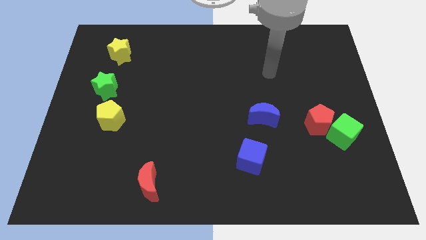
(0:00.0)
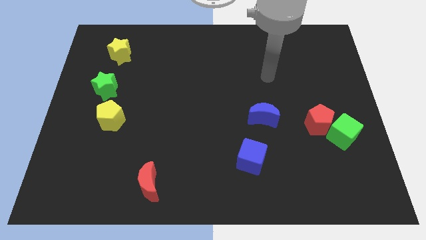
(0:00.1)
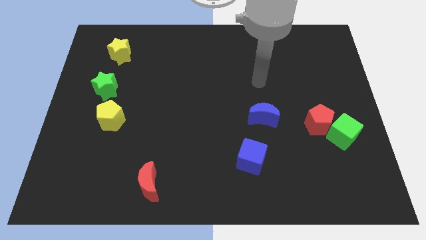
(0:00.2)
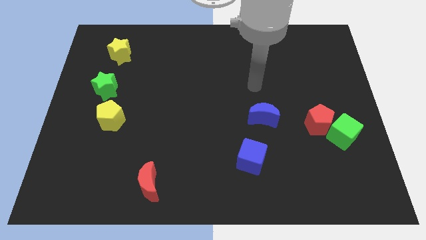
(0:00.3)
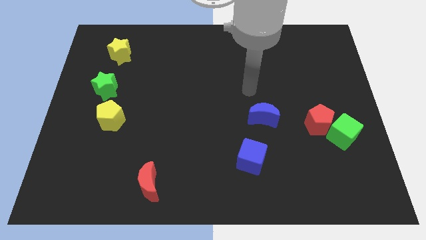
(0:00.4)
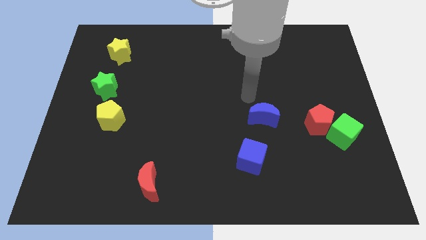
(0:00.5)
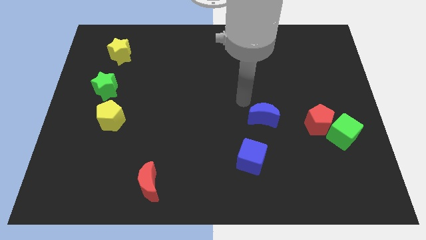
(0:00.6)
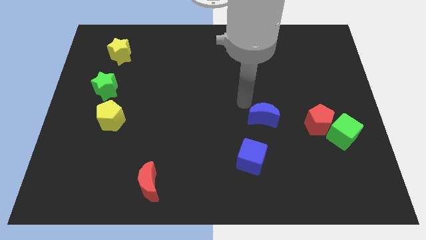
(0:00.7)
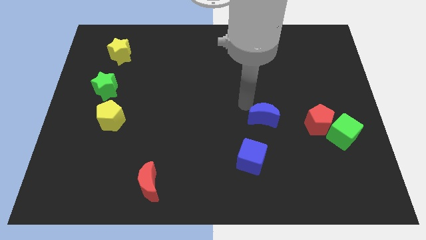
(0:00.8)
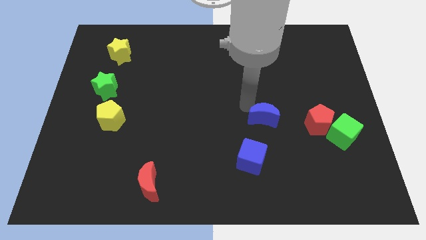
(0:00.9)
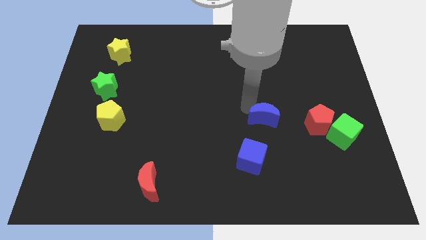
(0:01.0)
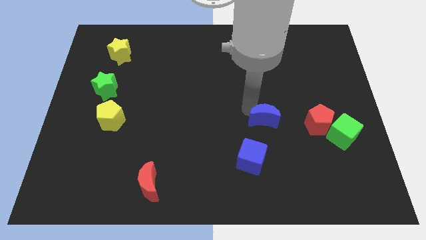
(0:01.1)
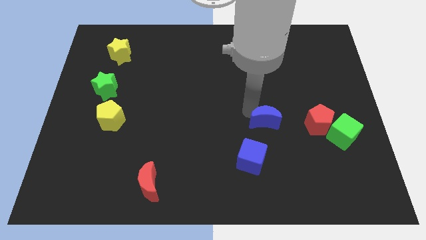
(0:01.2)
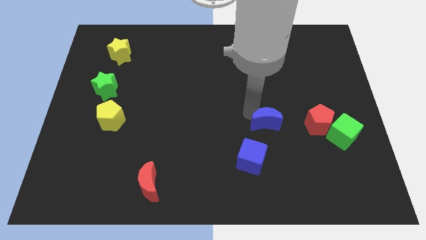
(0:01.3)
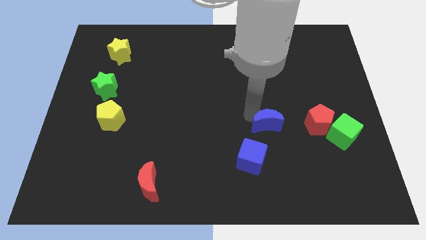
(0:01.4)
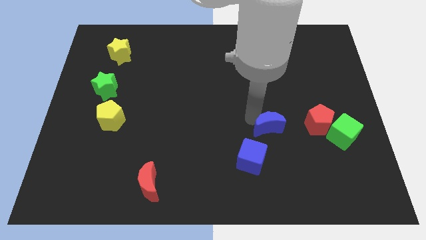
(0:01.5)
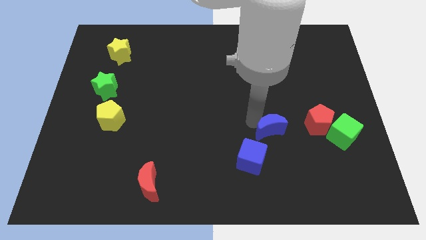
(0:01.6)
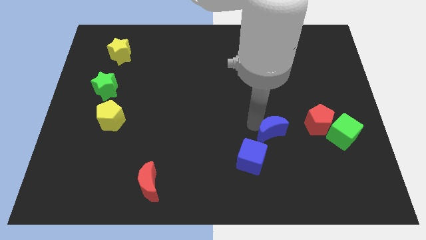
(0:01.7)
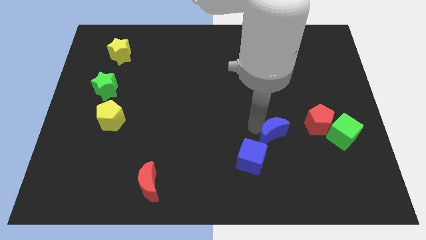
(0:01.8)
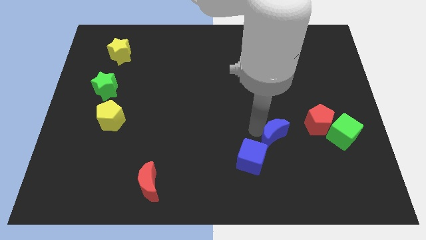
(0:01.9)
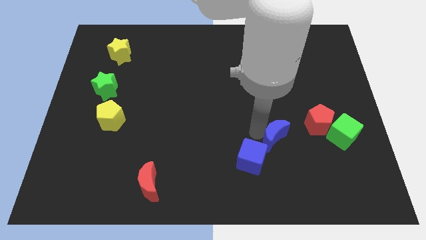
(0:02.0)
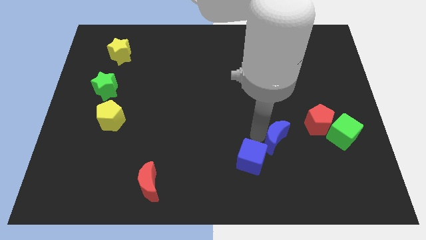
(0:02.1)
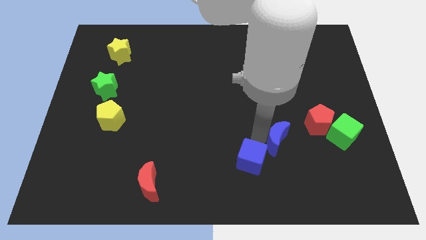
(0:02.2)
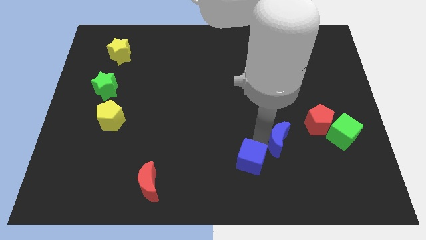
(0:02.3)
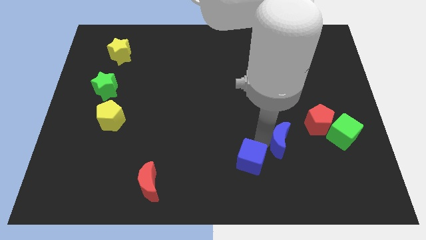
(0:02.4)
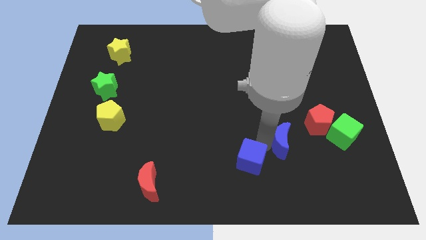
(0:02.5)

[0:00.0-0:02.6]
move the blue moon a little downwards and then right

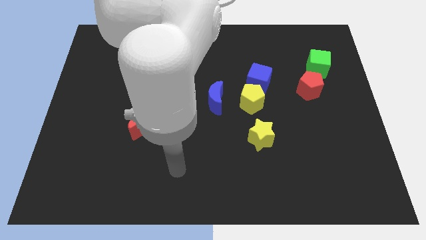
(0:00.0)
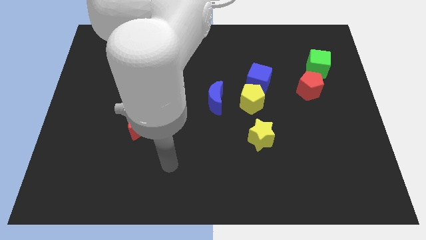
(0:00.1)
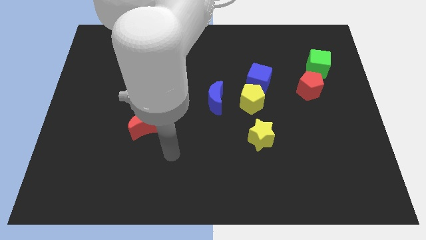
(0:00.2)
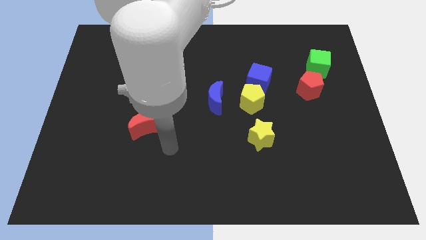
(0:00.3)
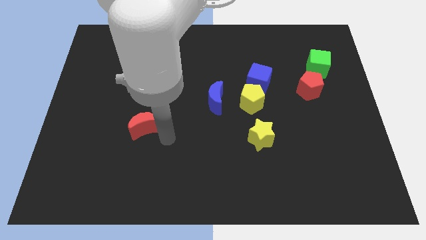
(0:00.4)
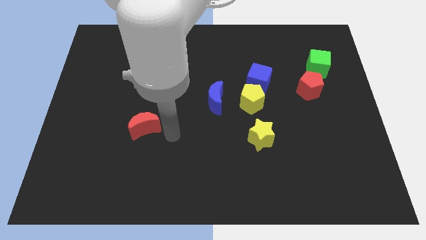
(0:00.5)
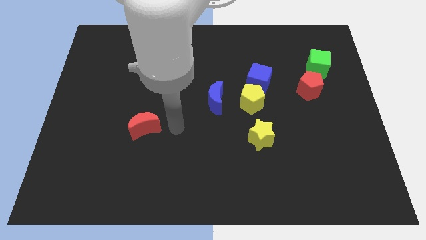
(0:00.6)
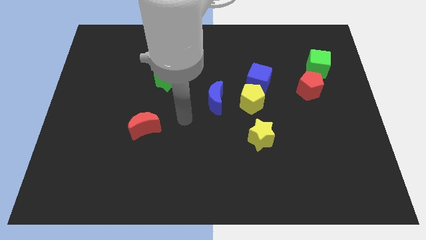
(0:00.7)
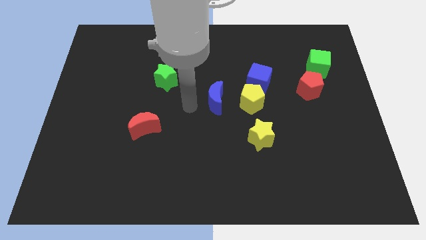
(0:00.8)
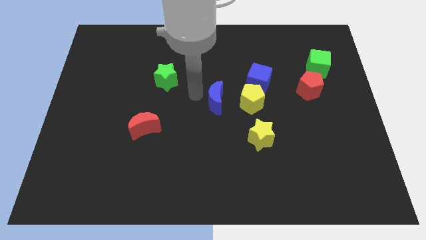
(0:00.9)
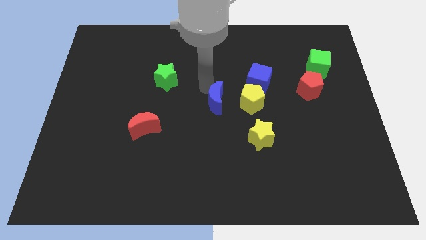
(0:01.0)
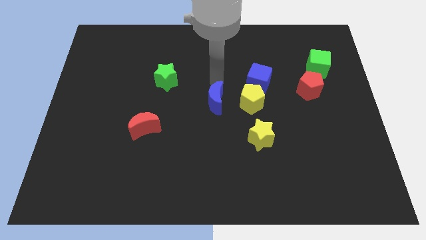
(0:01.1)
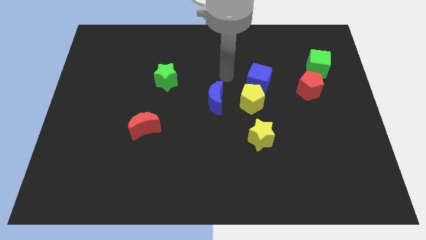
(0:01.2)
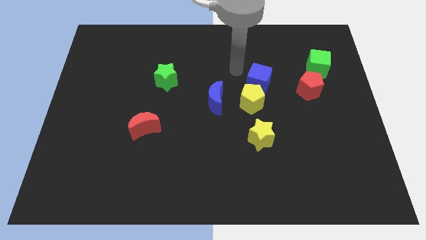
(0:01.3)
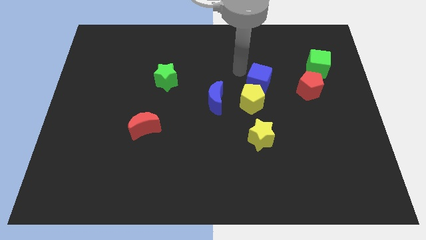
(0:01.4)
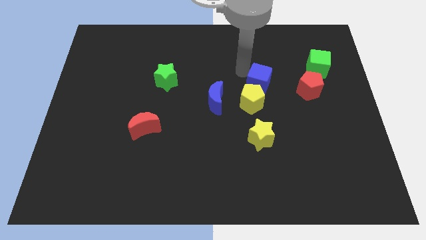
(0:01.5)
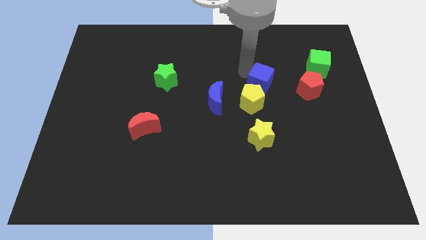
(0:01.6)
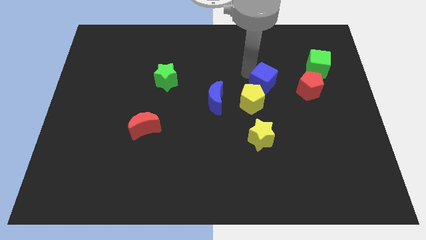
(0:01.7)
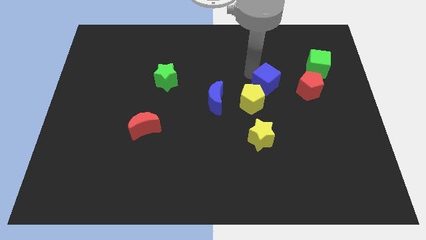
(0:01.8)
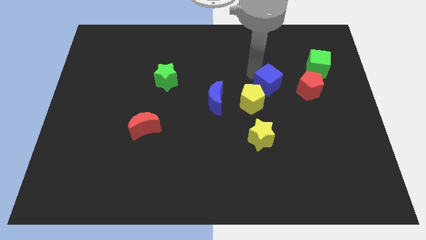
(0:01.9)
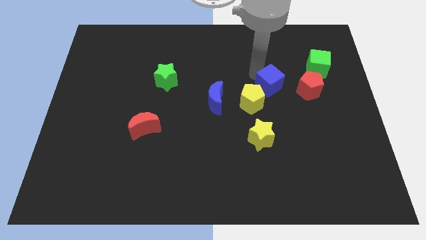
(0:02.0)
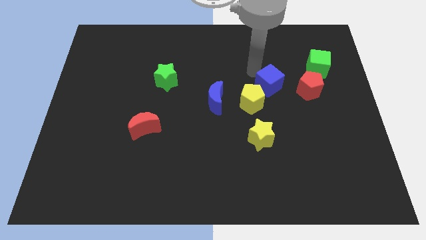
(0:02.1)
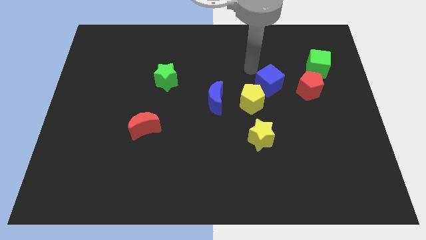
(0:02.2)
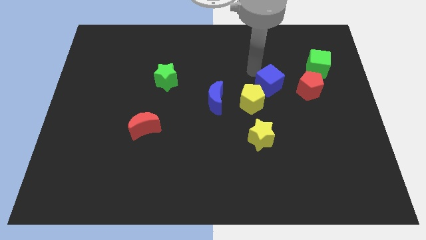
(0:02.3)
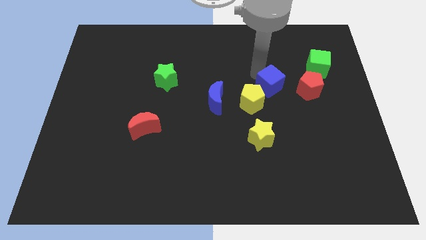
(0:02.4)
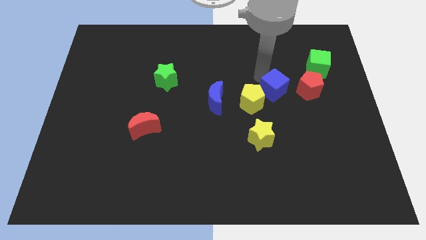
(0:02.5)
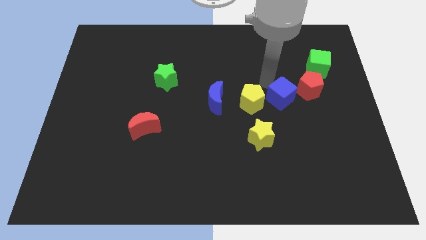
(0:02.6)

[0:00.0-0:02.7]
slide the blue cube down and to the right slightly

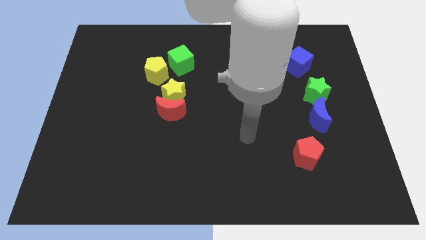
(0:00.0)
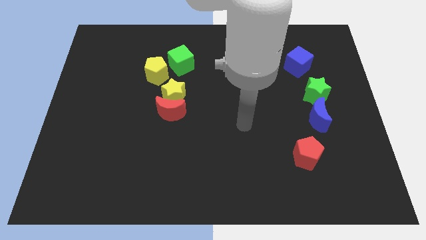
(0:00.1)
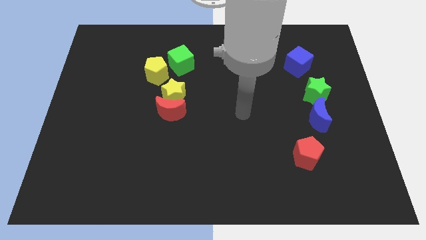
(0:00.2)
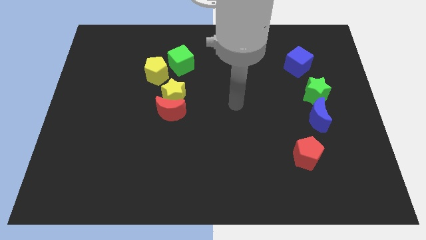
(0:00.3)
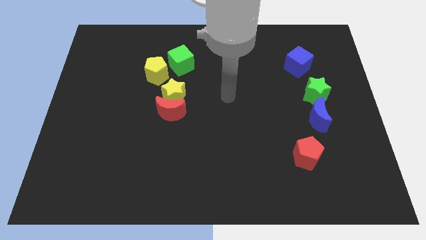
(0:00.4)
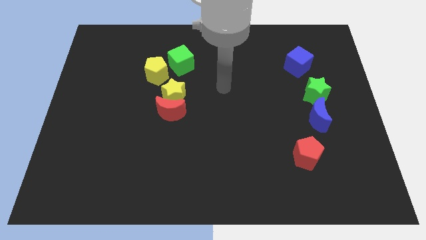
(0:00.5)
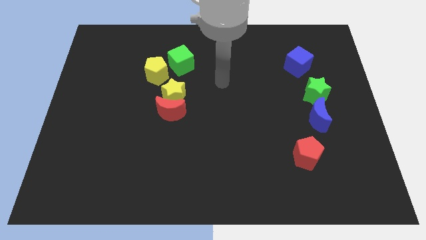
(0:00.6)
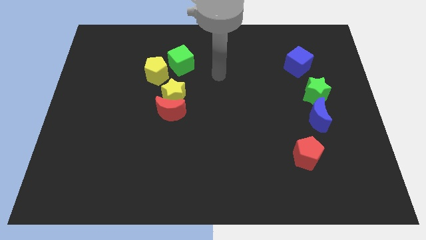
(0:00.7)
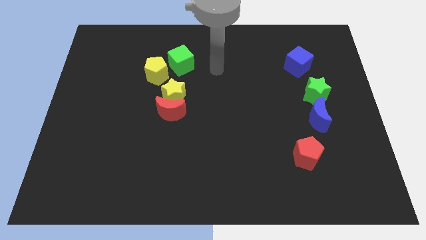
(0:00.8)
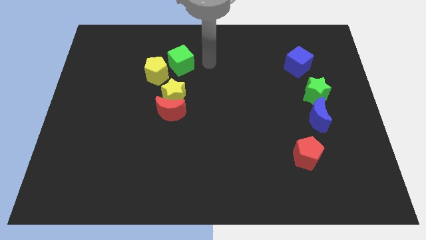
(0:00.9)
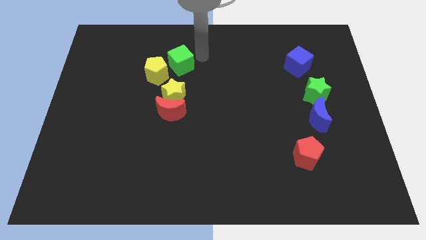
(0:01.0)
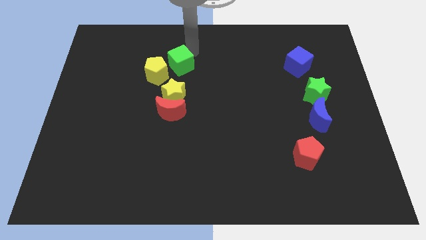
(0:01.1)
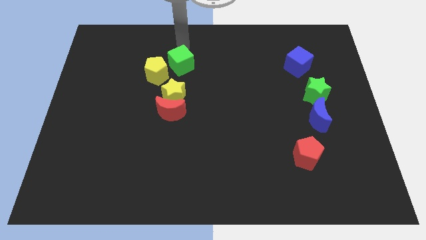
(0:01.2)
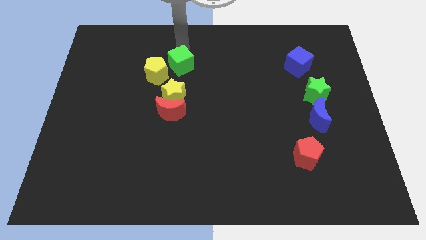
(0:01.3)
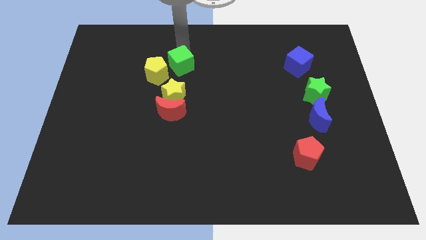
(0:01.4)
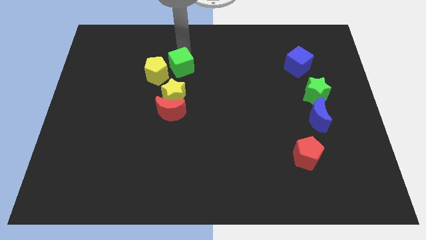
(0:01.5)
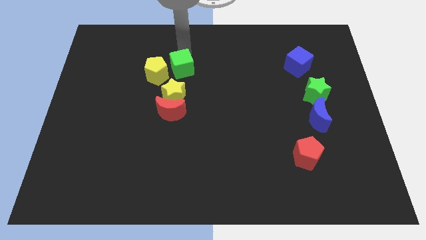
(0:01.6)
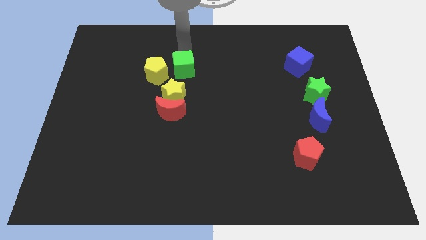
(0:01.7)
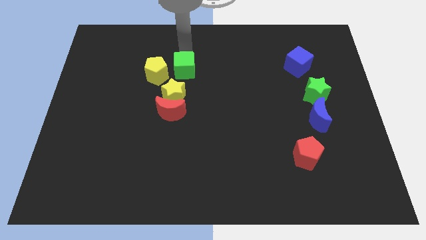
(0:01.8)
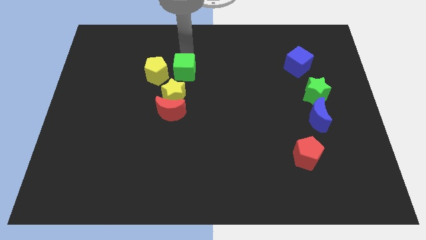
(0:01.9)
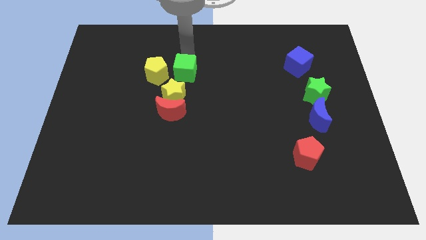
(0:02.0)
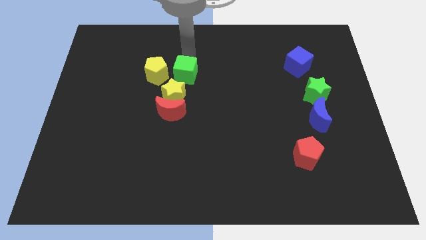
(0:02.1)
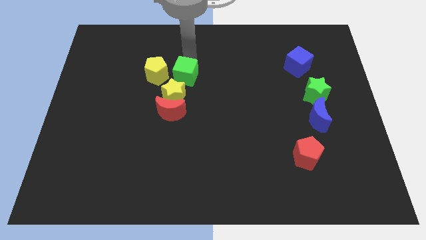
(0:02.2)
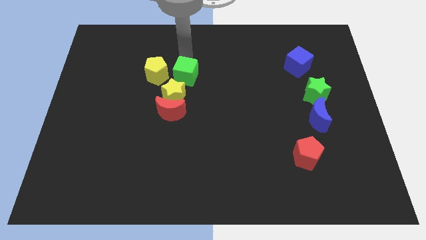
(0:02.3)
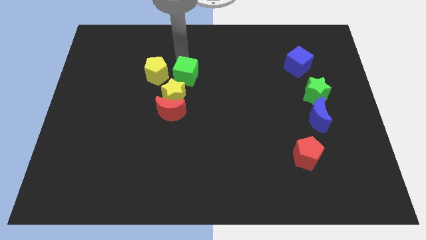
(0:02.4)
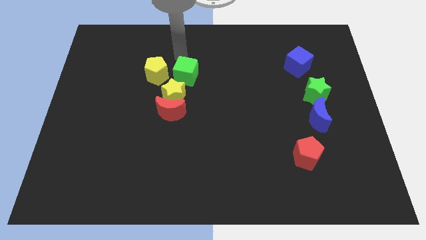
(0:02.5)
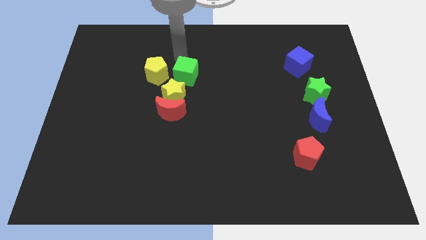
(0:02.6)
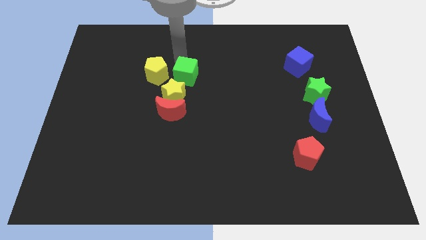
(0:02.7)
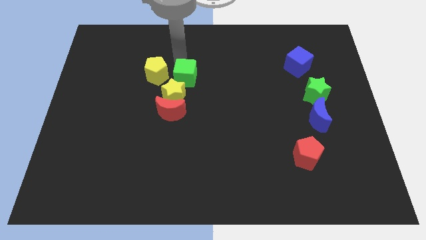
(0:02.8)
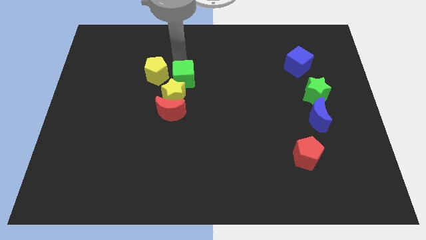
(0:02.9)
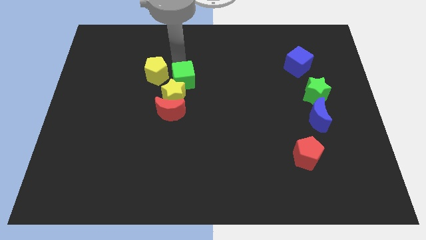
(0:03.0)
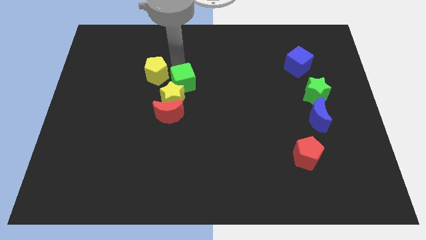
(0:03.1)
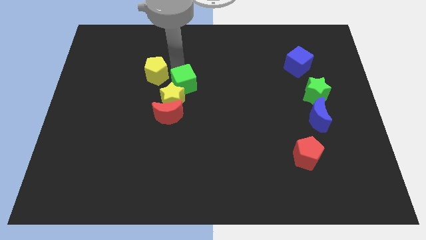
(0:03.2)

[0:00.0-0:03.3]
slide the green cube a little bit downwards
